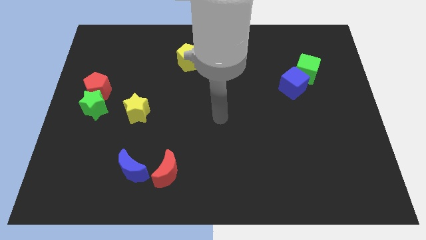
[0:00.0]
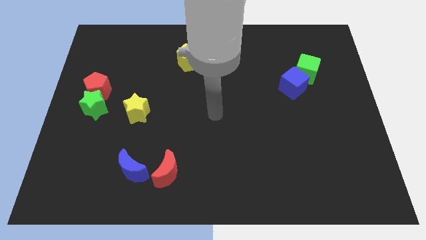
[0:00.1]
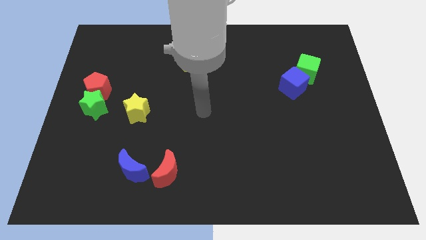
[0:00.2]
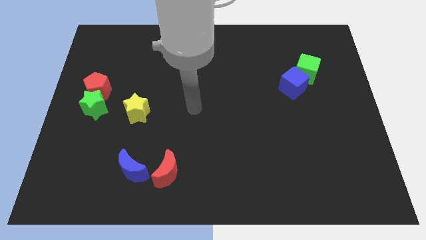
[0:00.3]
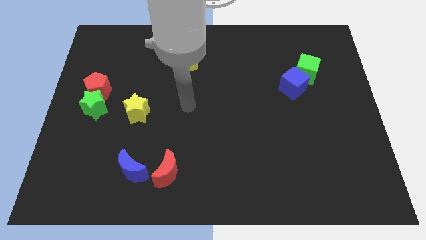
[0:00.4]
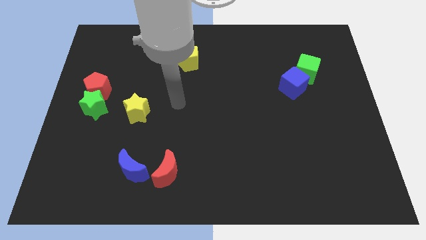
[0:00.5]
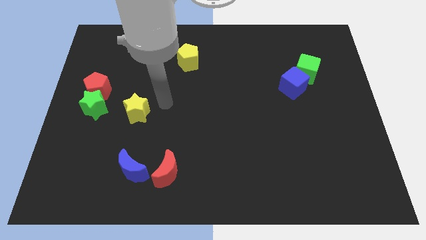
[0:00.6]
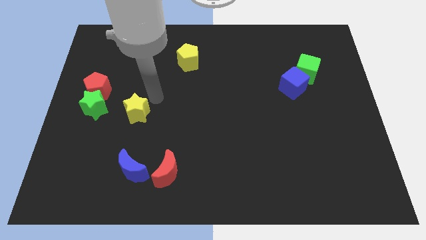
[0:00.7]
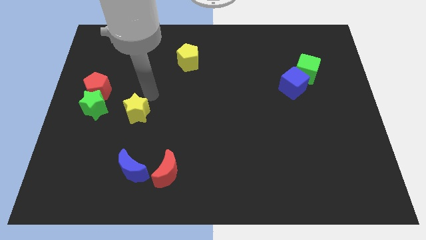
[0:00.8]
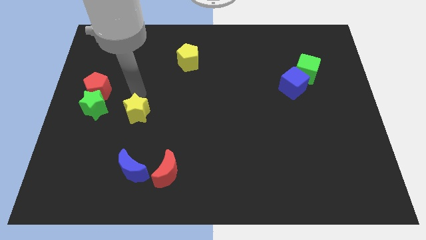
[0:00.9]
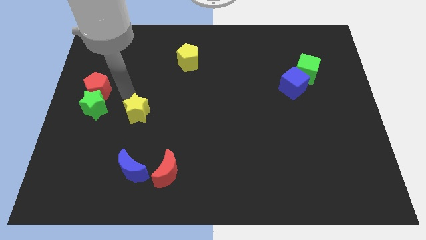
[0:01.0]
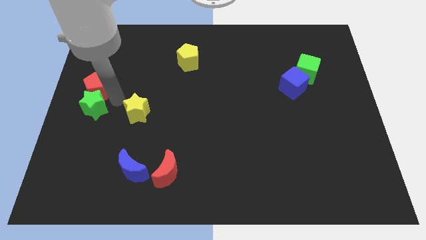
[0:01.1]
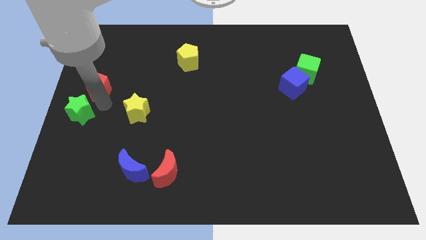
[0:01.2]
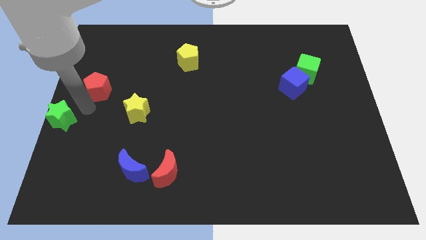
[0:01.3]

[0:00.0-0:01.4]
move the red pentagon away from the green star

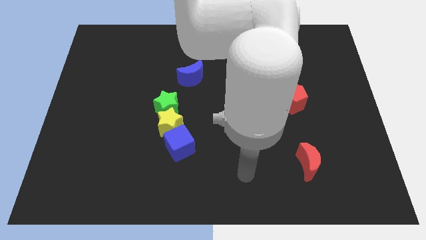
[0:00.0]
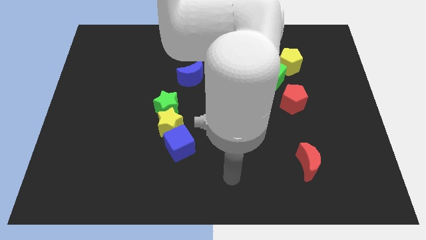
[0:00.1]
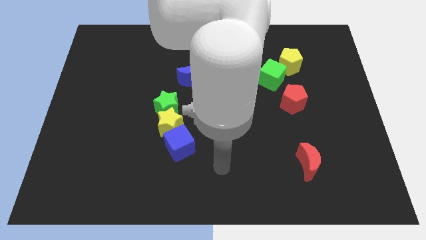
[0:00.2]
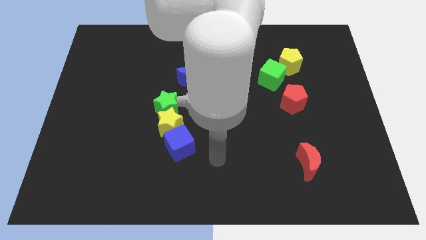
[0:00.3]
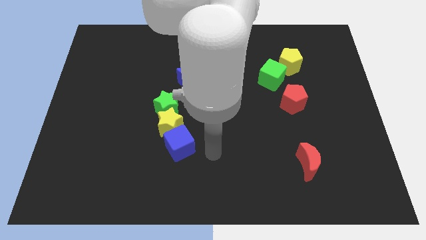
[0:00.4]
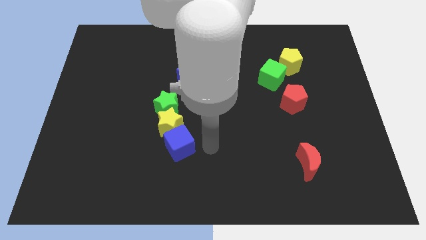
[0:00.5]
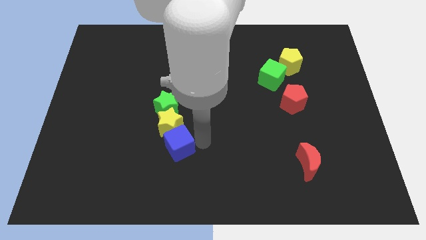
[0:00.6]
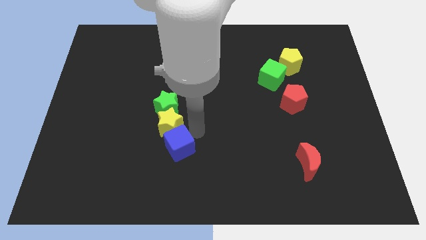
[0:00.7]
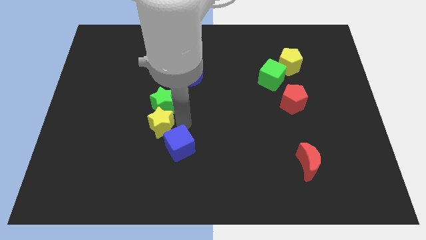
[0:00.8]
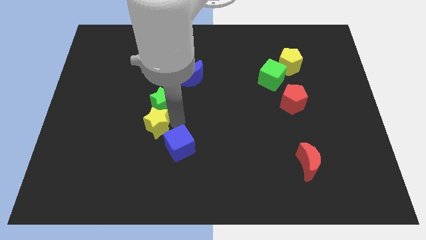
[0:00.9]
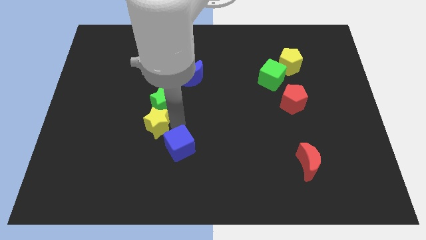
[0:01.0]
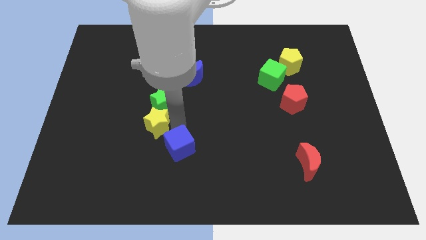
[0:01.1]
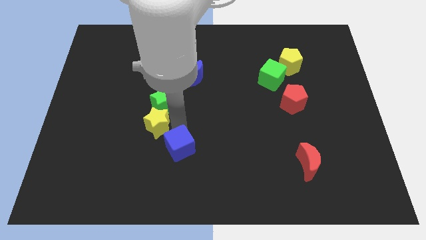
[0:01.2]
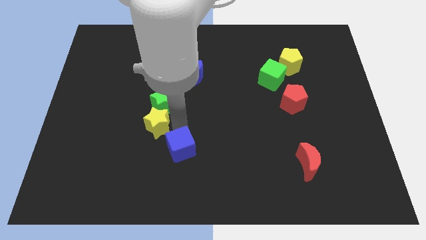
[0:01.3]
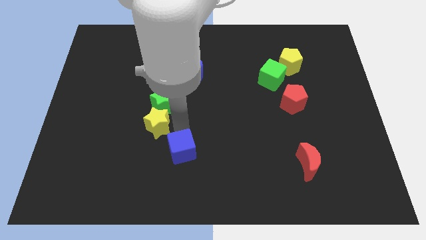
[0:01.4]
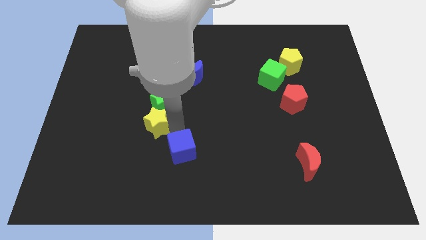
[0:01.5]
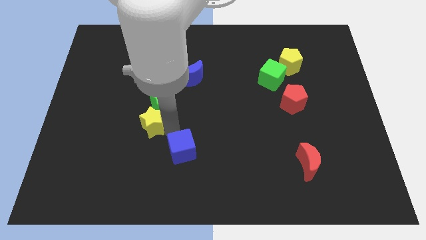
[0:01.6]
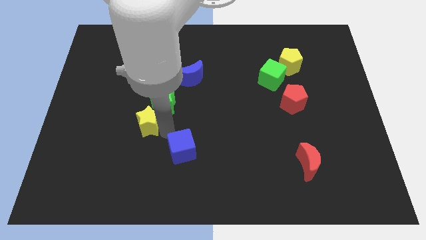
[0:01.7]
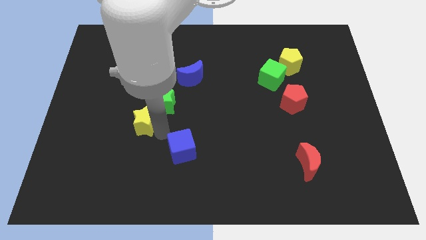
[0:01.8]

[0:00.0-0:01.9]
pull the blue cube apart from the yellow star

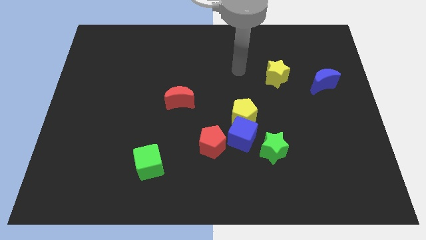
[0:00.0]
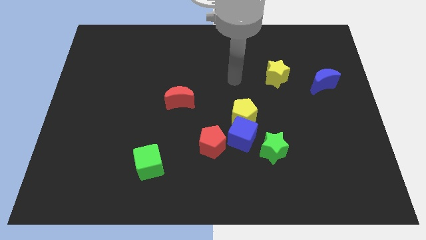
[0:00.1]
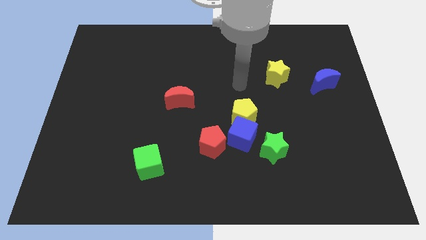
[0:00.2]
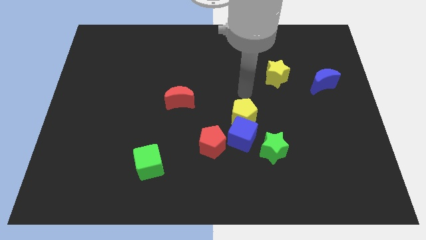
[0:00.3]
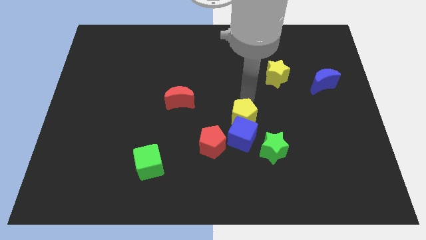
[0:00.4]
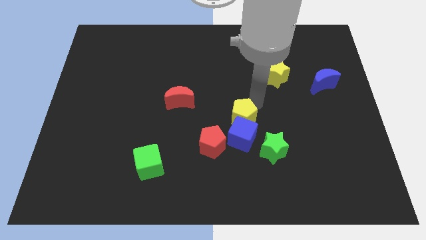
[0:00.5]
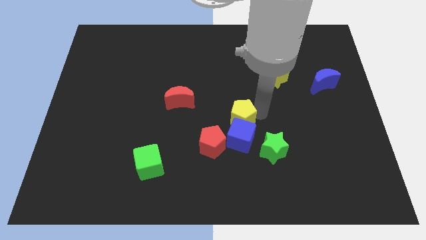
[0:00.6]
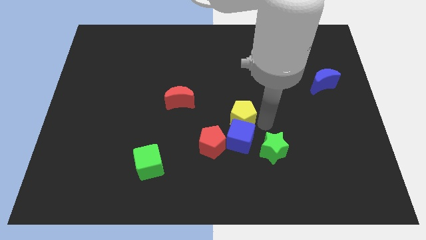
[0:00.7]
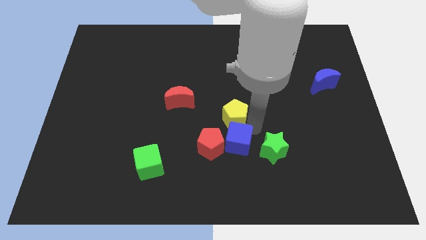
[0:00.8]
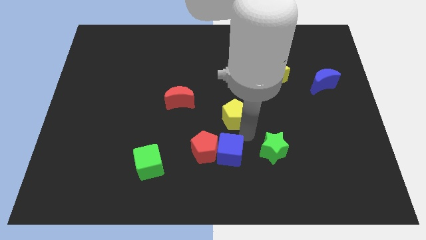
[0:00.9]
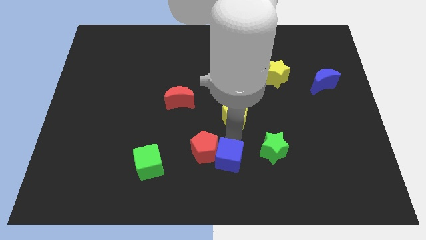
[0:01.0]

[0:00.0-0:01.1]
move the yellow pentagon away from the blue cube

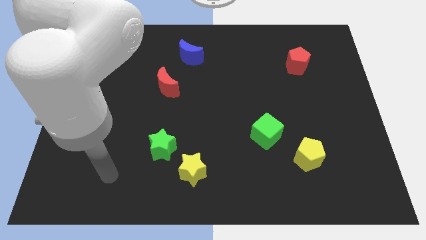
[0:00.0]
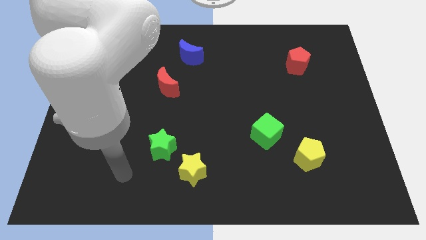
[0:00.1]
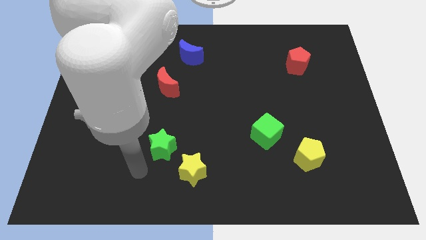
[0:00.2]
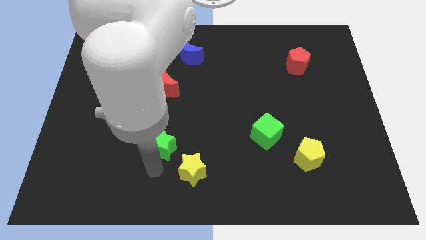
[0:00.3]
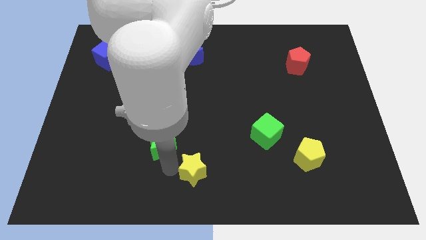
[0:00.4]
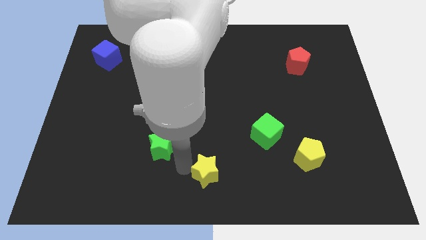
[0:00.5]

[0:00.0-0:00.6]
pull the green star apart from the yellow star

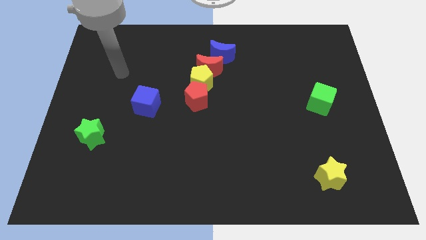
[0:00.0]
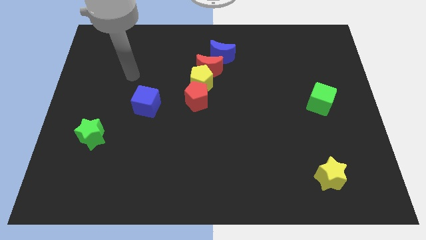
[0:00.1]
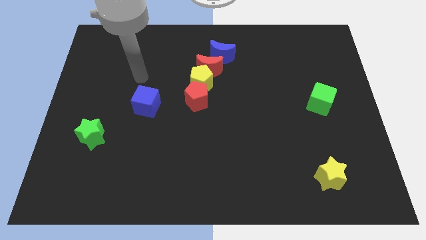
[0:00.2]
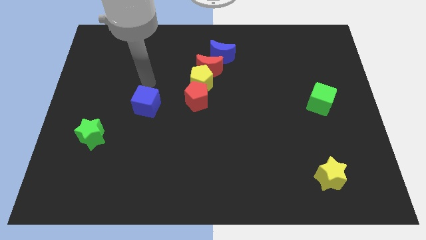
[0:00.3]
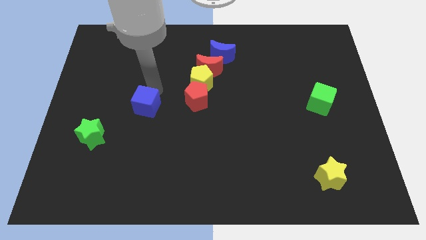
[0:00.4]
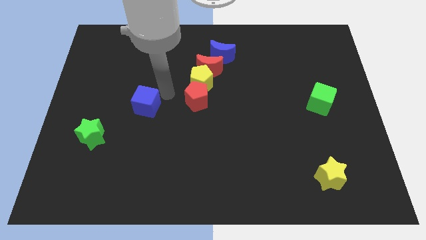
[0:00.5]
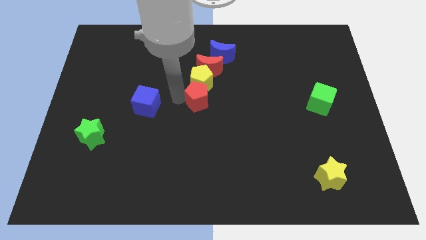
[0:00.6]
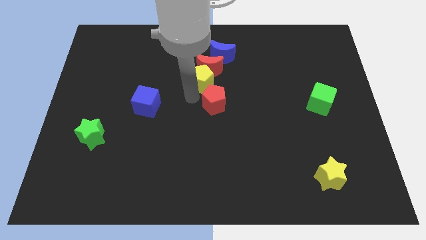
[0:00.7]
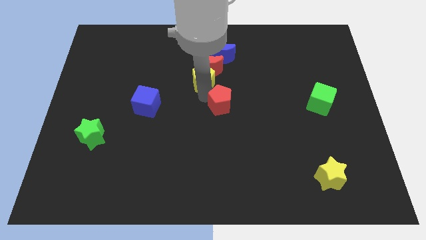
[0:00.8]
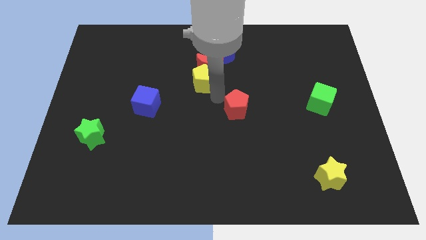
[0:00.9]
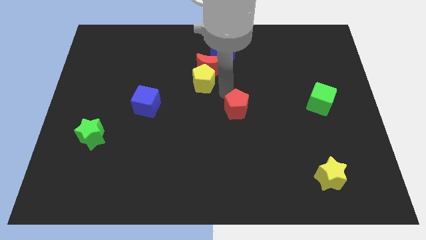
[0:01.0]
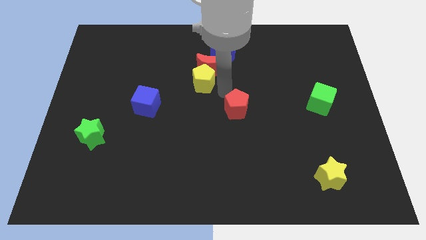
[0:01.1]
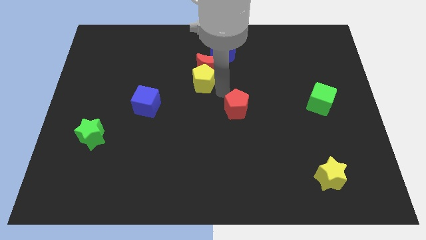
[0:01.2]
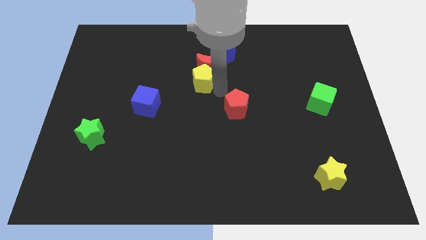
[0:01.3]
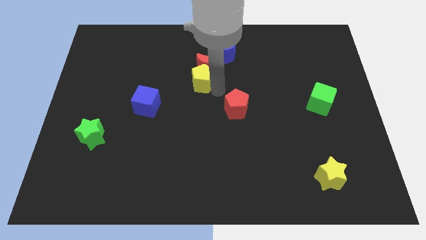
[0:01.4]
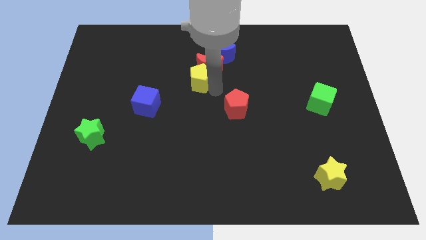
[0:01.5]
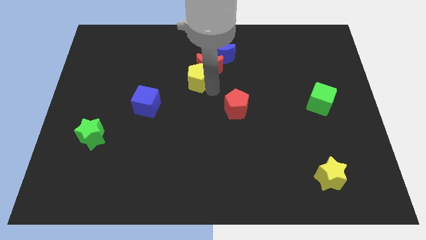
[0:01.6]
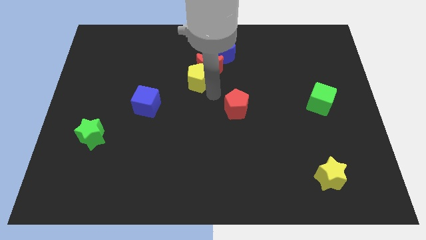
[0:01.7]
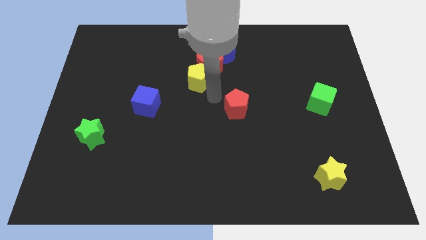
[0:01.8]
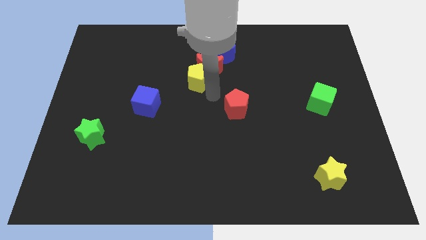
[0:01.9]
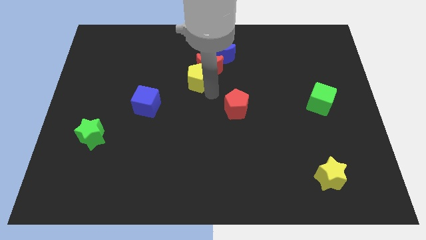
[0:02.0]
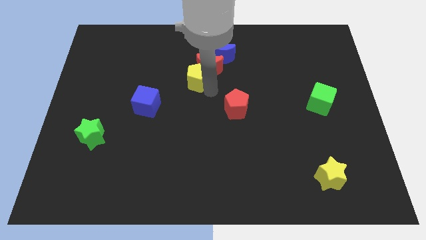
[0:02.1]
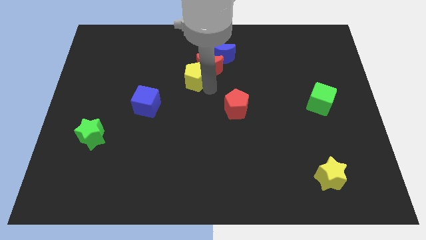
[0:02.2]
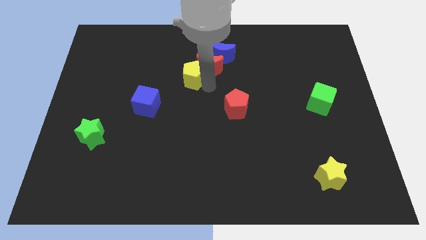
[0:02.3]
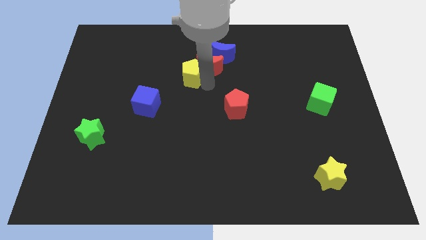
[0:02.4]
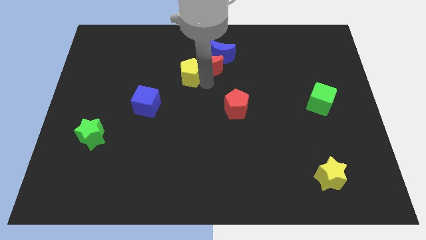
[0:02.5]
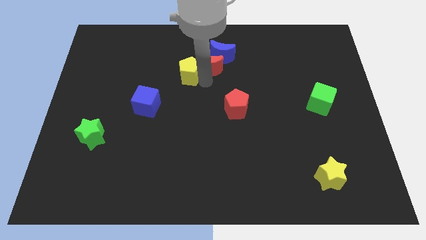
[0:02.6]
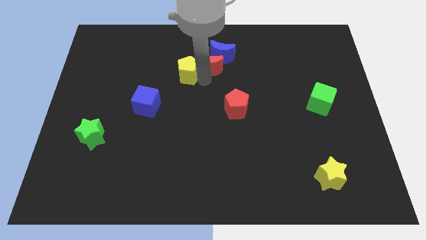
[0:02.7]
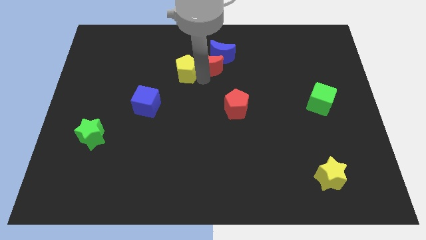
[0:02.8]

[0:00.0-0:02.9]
separate the yellow pentagon from the red moon and red pentagon

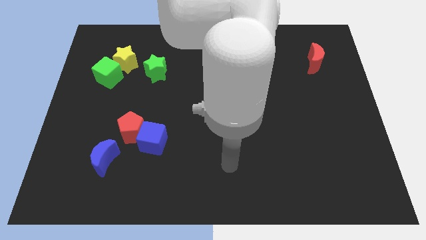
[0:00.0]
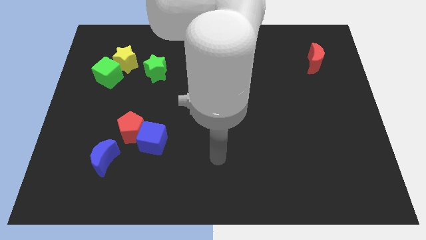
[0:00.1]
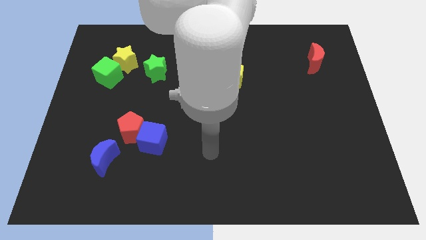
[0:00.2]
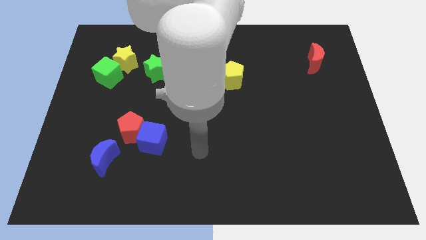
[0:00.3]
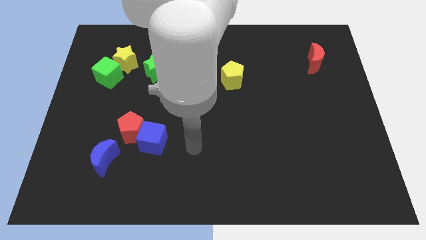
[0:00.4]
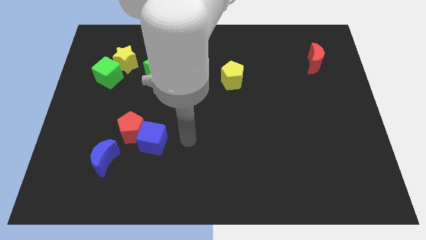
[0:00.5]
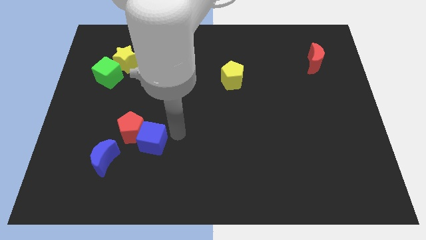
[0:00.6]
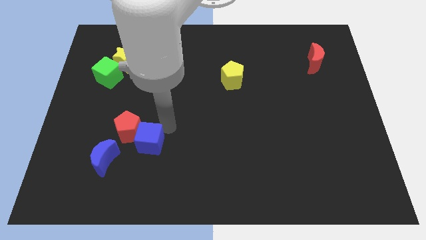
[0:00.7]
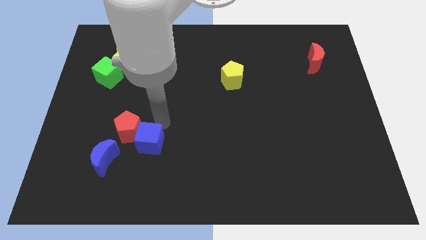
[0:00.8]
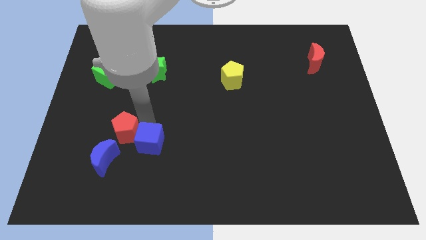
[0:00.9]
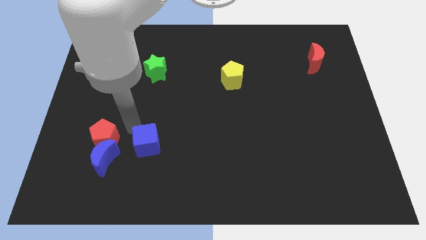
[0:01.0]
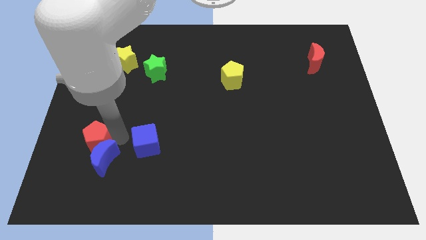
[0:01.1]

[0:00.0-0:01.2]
move the blue cube away from the red pentagon

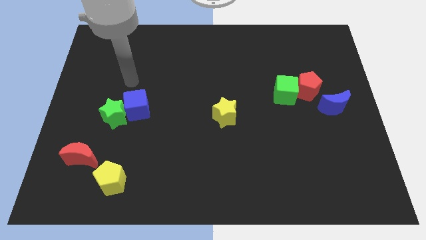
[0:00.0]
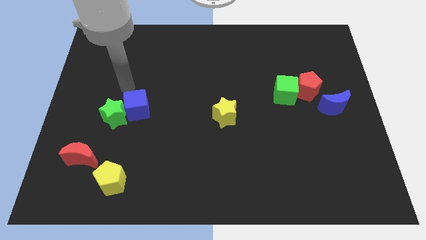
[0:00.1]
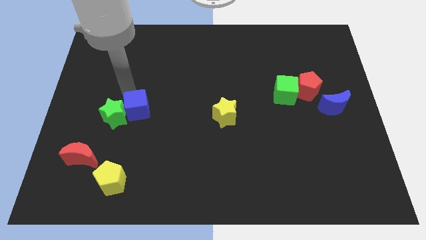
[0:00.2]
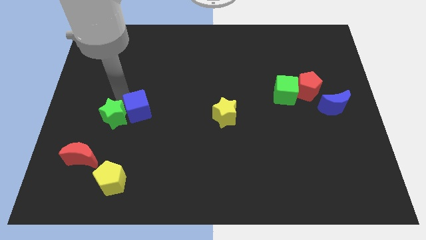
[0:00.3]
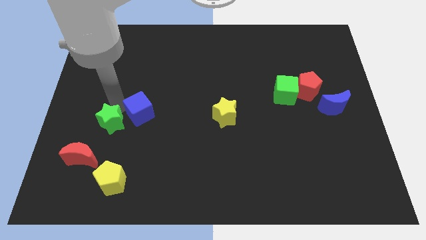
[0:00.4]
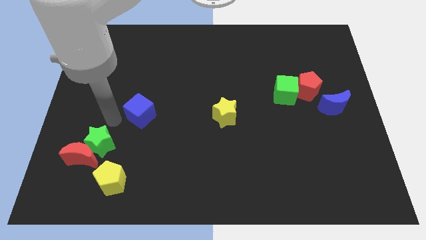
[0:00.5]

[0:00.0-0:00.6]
move the blue cube away from the green star
